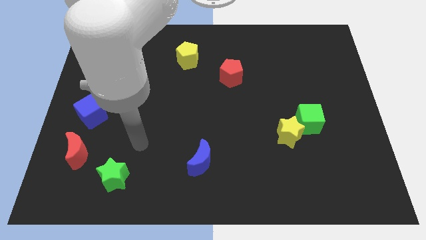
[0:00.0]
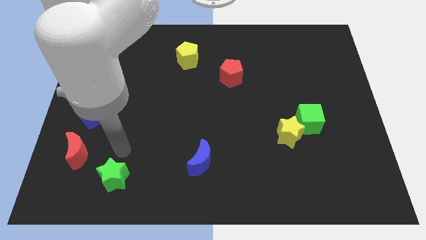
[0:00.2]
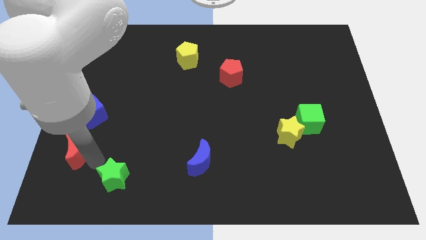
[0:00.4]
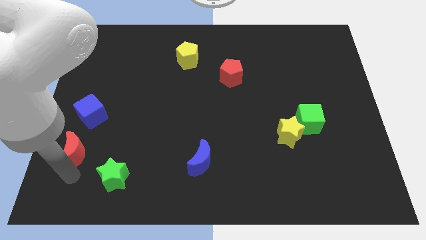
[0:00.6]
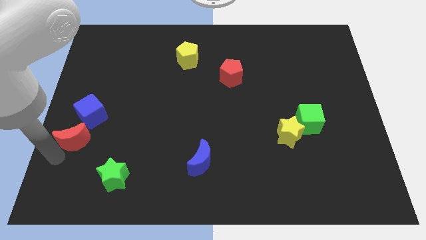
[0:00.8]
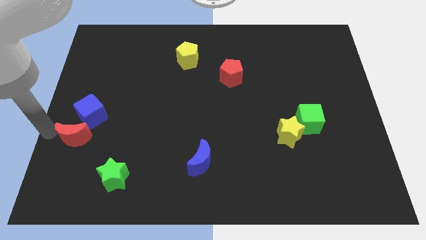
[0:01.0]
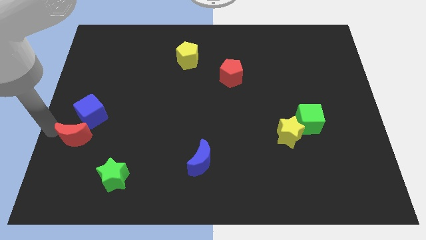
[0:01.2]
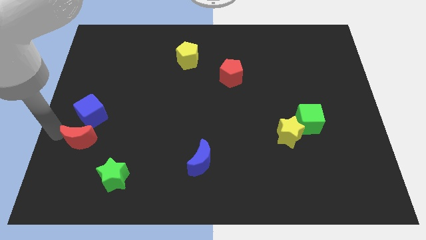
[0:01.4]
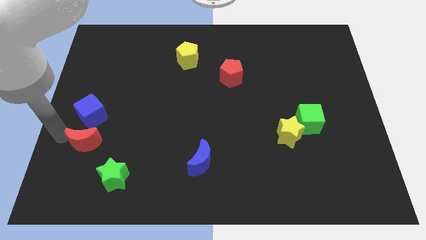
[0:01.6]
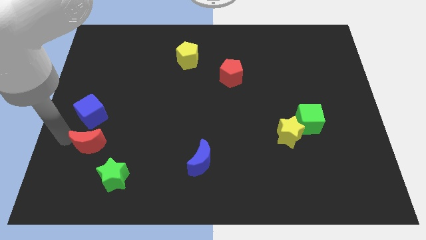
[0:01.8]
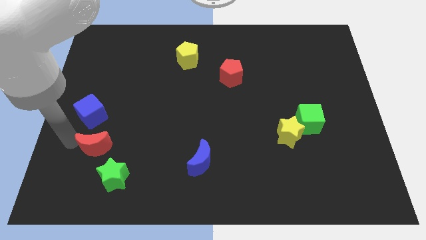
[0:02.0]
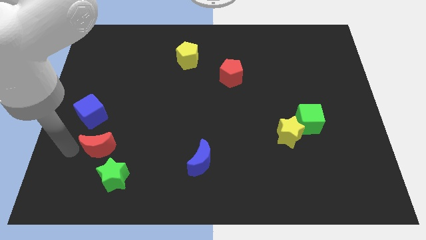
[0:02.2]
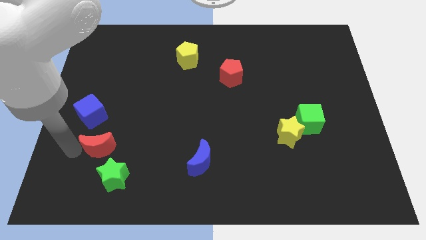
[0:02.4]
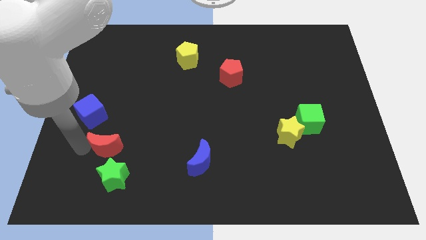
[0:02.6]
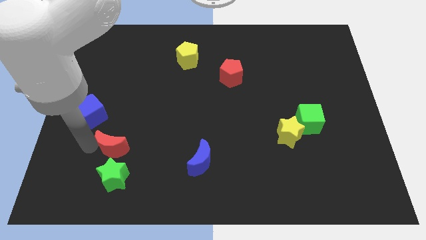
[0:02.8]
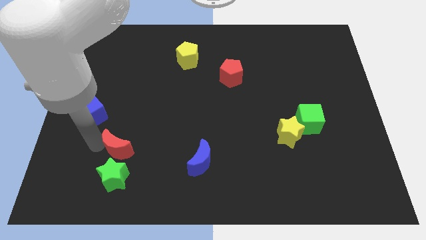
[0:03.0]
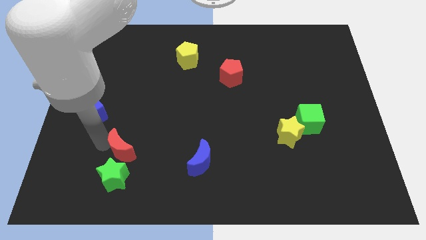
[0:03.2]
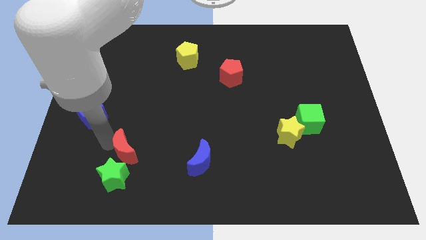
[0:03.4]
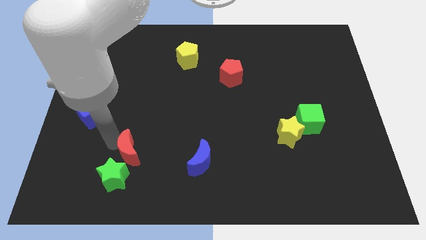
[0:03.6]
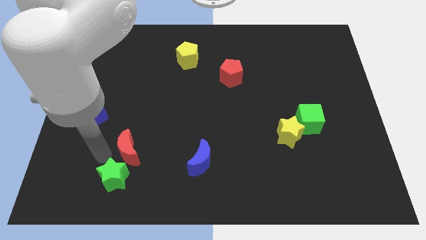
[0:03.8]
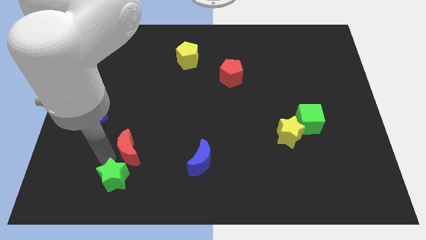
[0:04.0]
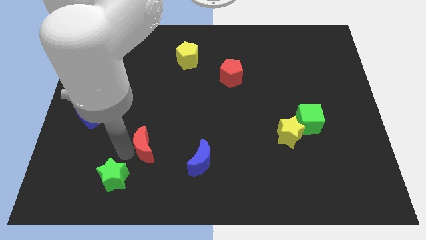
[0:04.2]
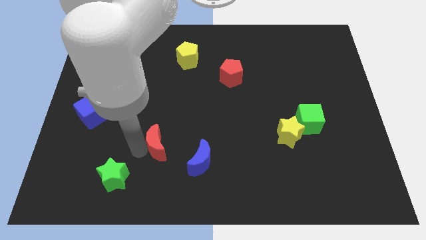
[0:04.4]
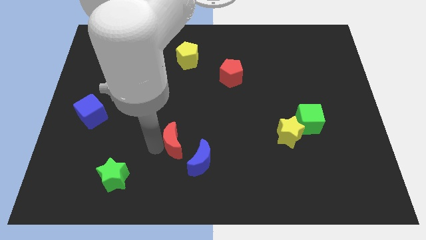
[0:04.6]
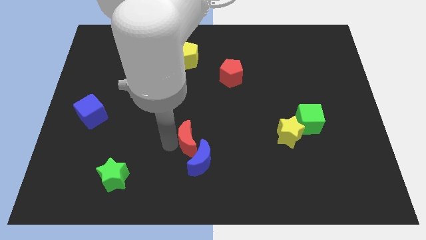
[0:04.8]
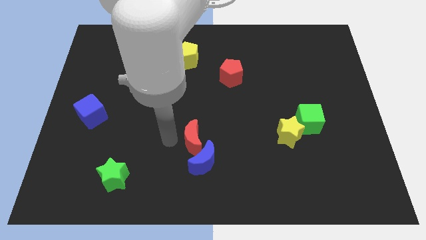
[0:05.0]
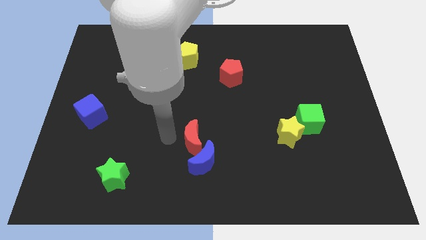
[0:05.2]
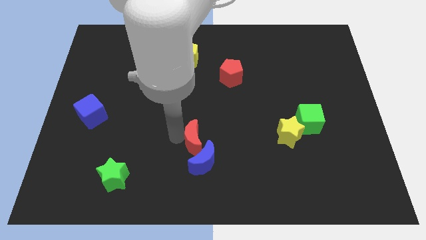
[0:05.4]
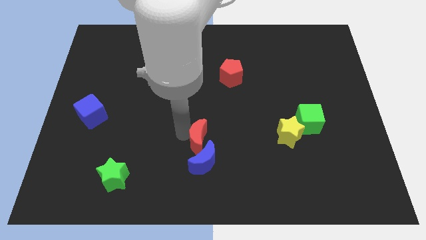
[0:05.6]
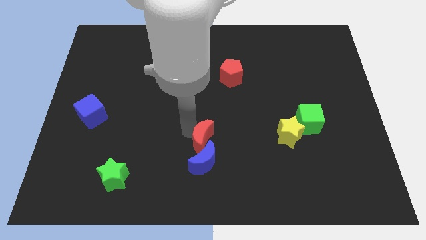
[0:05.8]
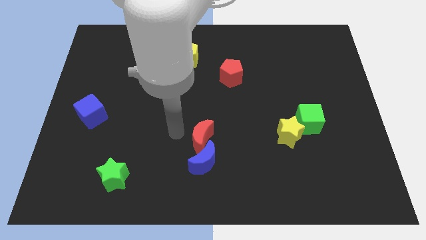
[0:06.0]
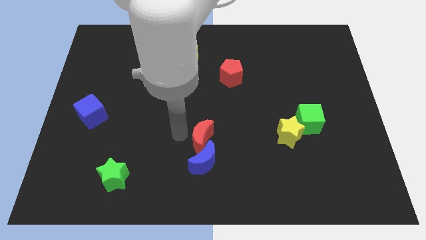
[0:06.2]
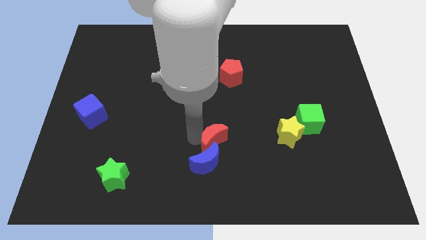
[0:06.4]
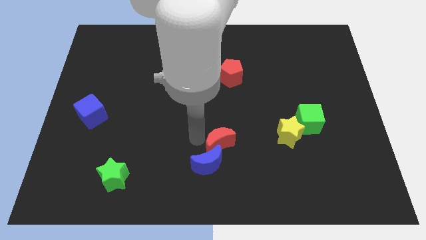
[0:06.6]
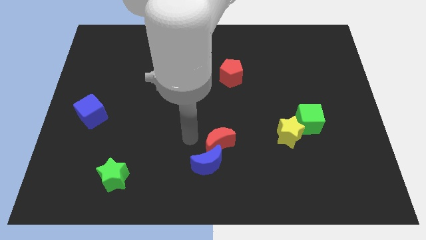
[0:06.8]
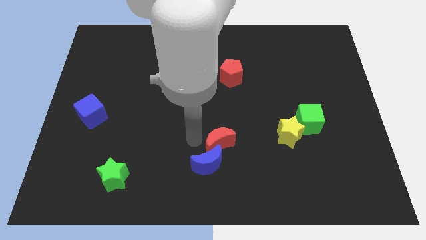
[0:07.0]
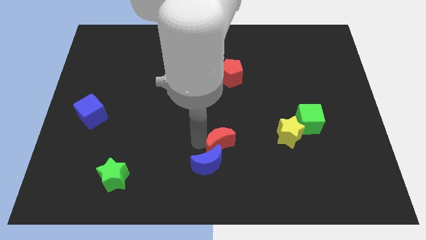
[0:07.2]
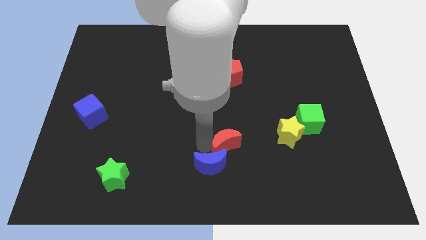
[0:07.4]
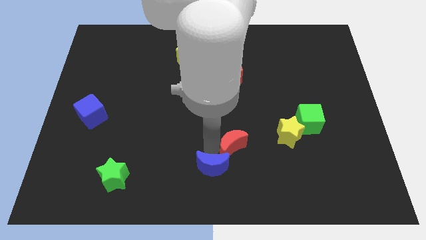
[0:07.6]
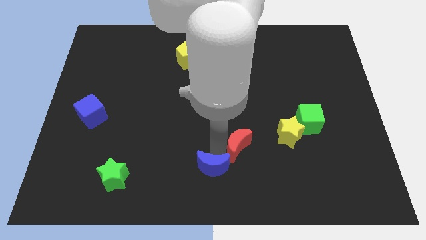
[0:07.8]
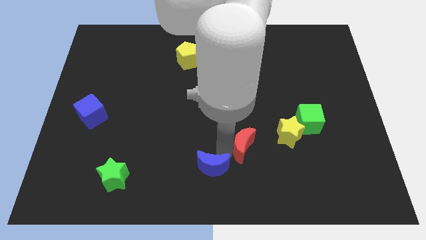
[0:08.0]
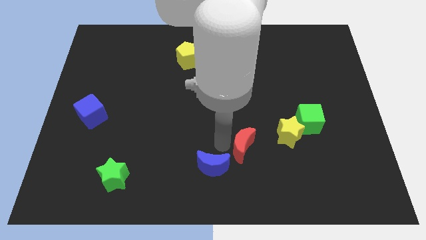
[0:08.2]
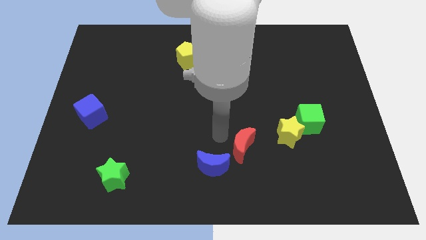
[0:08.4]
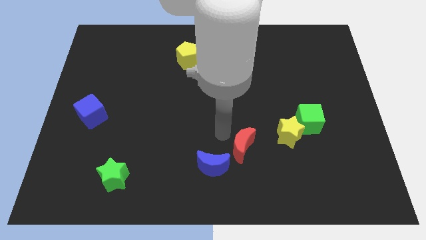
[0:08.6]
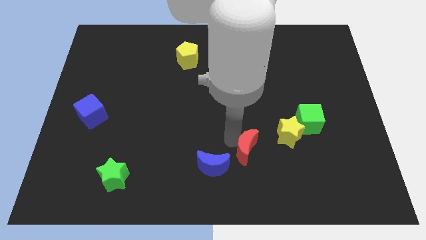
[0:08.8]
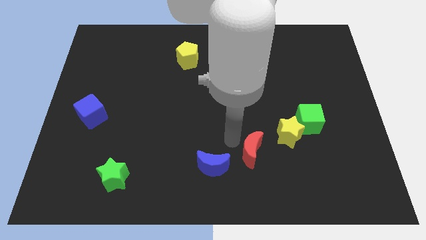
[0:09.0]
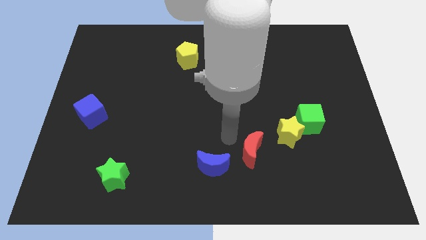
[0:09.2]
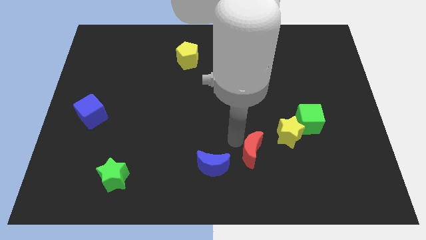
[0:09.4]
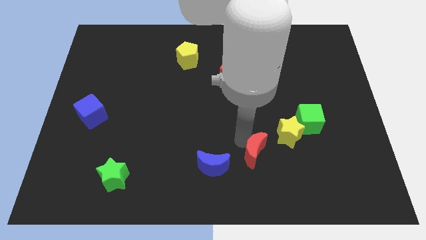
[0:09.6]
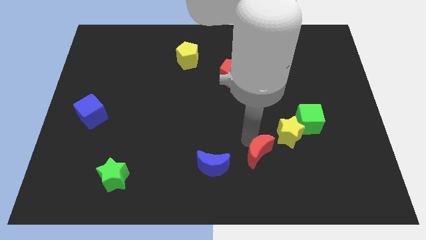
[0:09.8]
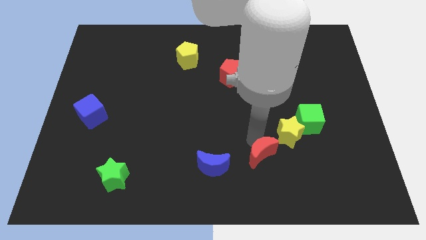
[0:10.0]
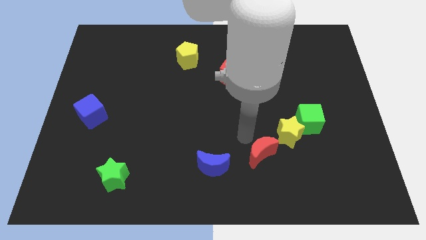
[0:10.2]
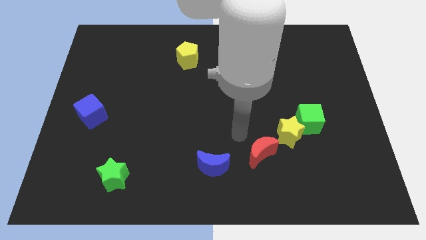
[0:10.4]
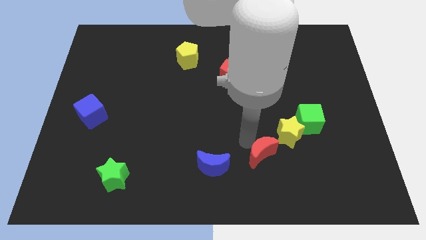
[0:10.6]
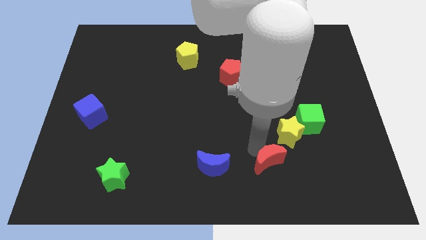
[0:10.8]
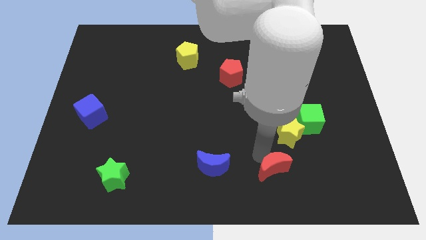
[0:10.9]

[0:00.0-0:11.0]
slide the red moon below the yellow star

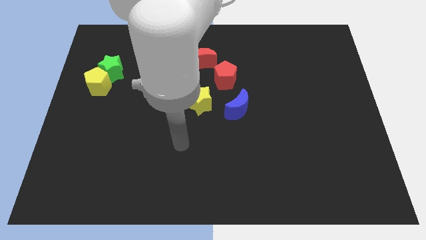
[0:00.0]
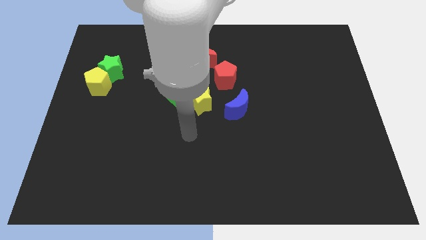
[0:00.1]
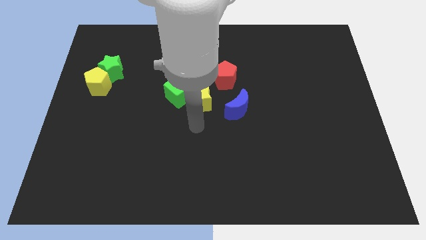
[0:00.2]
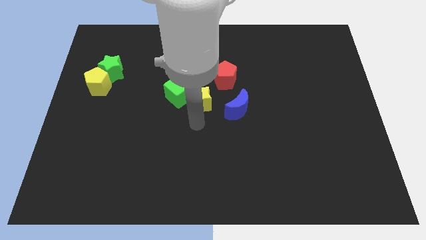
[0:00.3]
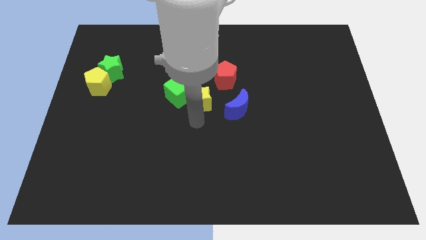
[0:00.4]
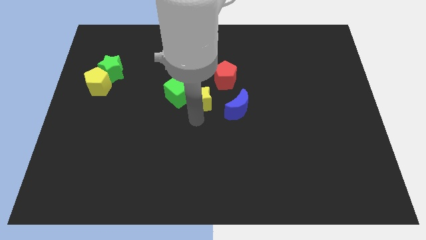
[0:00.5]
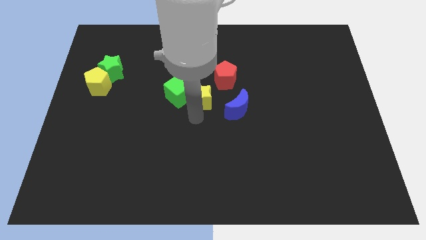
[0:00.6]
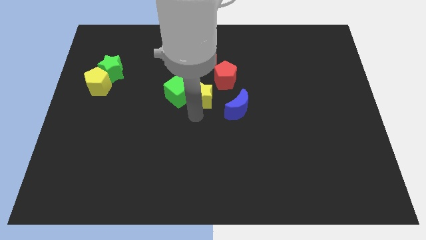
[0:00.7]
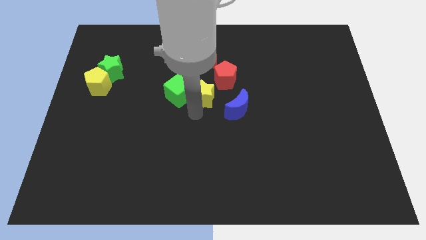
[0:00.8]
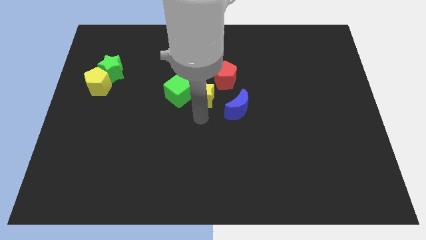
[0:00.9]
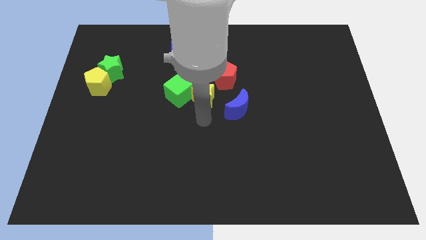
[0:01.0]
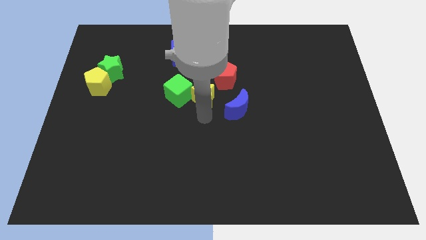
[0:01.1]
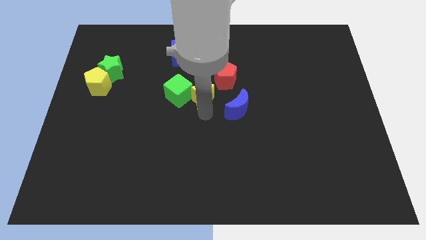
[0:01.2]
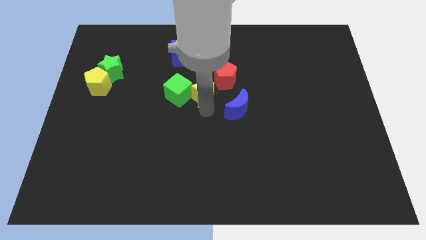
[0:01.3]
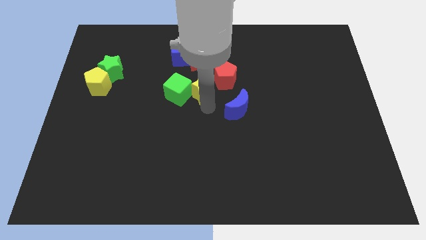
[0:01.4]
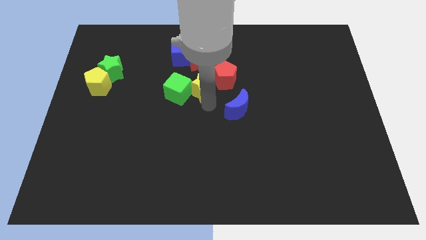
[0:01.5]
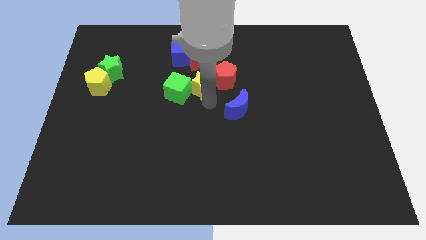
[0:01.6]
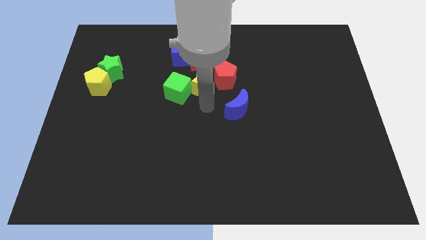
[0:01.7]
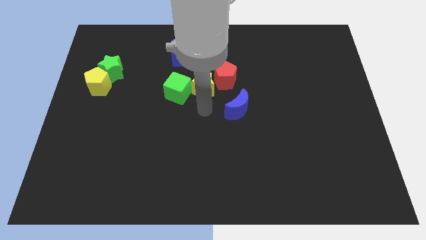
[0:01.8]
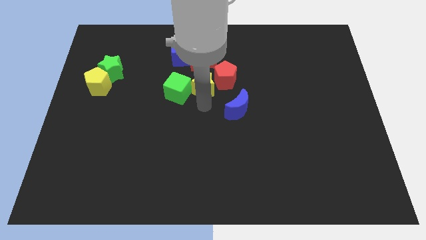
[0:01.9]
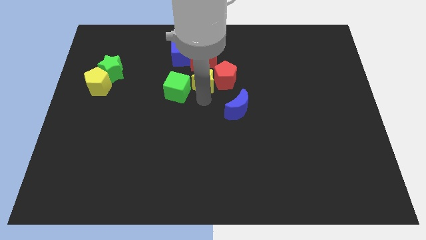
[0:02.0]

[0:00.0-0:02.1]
move the yellow star diagonally down and to the right of the blue cube
